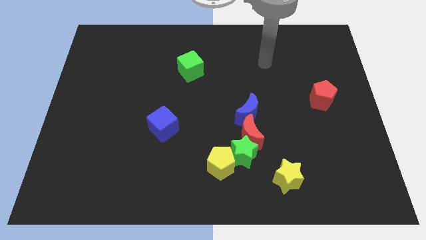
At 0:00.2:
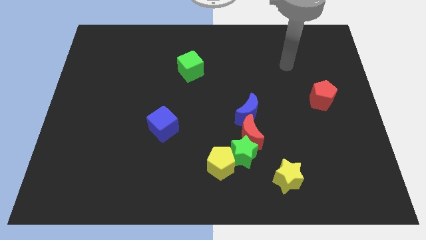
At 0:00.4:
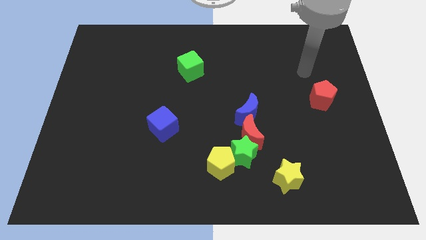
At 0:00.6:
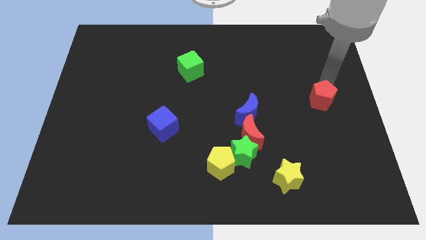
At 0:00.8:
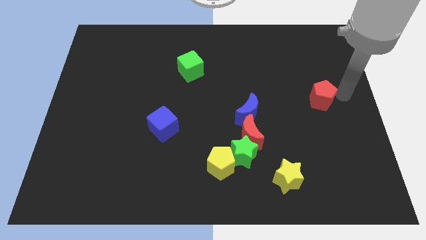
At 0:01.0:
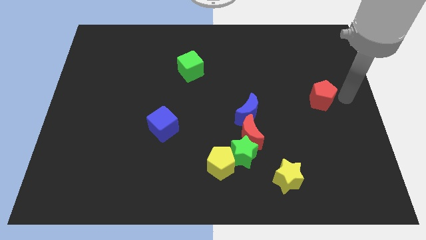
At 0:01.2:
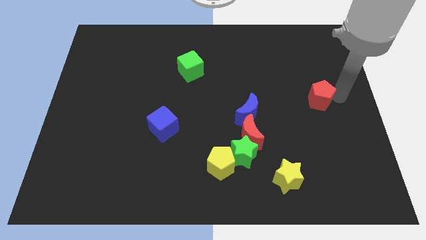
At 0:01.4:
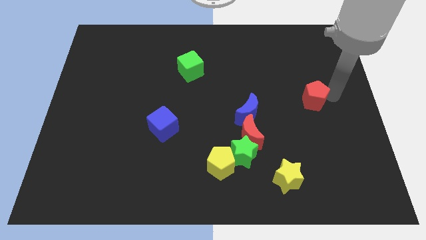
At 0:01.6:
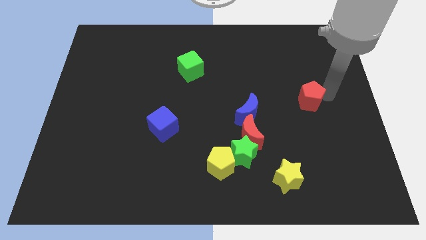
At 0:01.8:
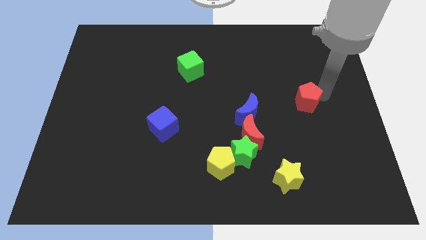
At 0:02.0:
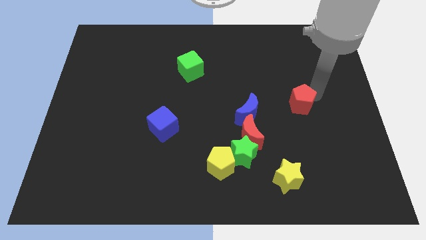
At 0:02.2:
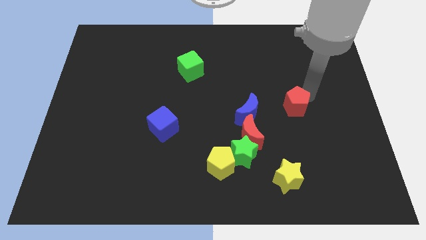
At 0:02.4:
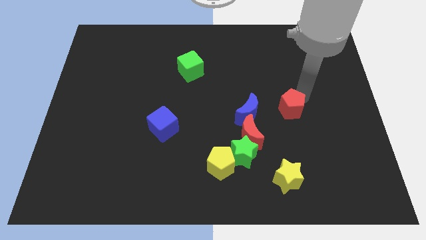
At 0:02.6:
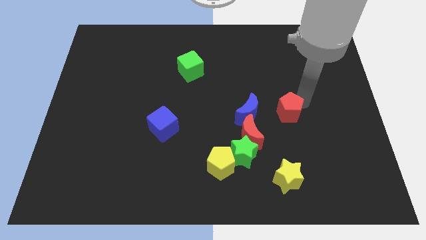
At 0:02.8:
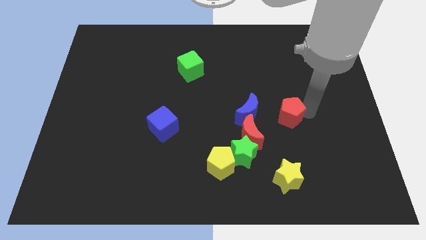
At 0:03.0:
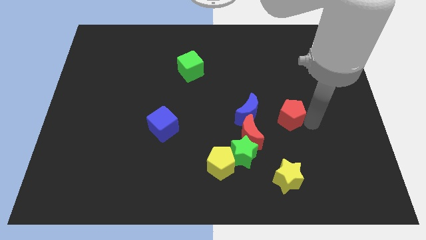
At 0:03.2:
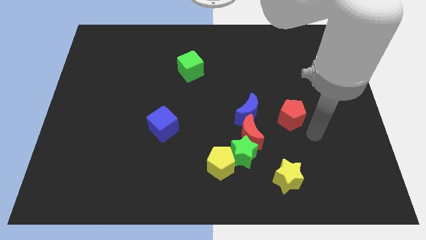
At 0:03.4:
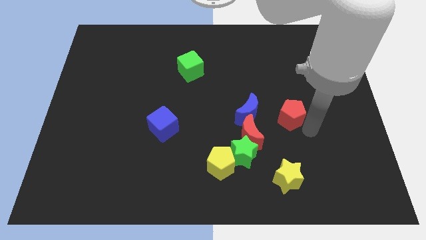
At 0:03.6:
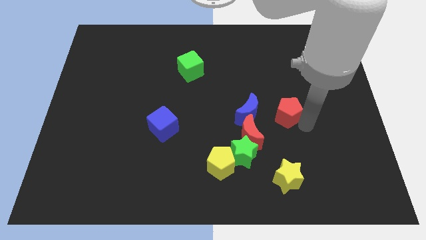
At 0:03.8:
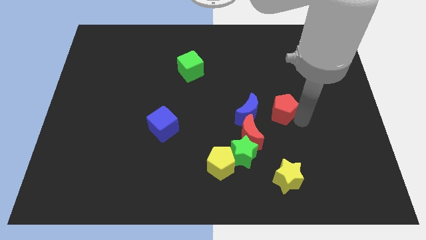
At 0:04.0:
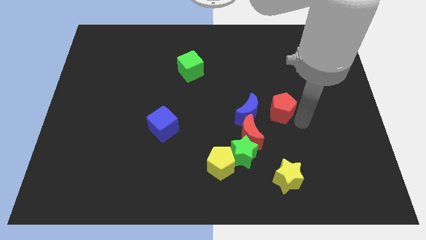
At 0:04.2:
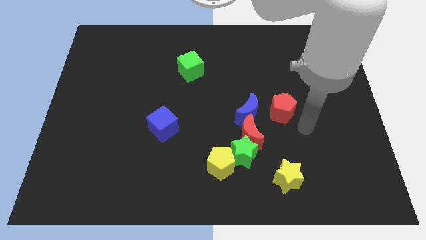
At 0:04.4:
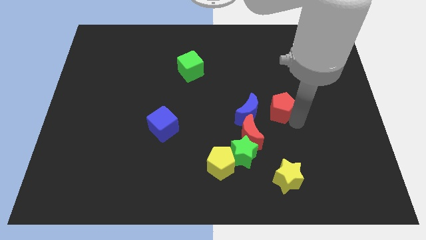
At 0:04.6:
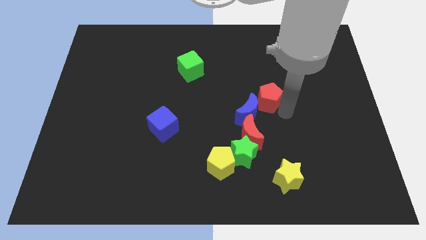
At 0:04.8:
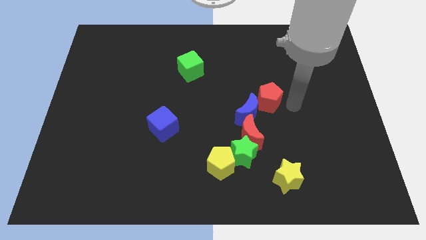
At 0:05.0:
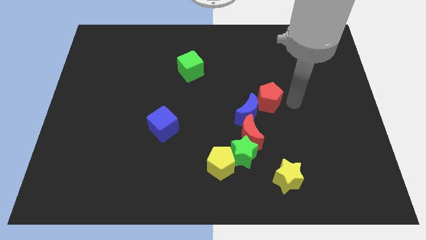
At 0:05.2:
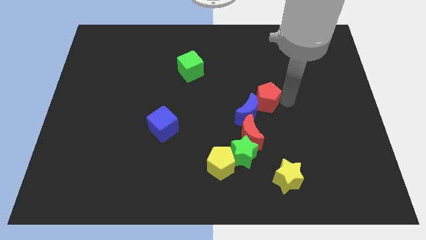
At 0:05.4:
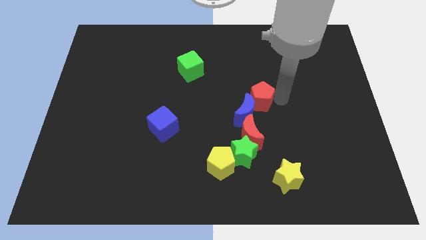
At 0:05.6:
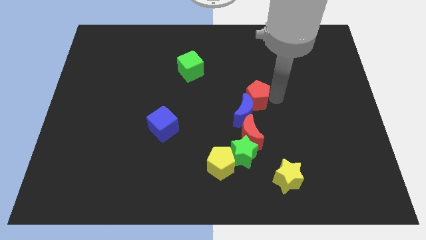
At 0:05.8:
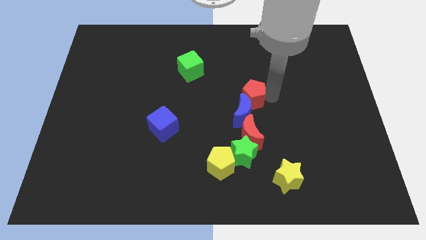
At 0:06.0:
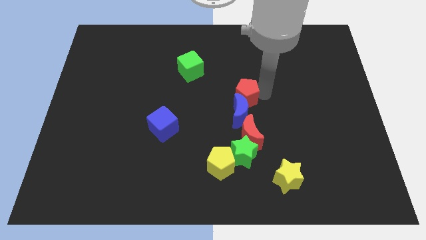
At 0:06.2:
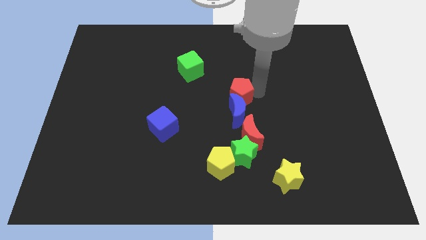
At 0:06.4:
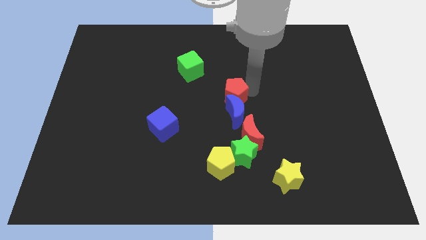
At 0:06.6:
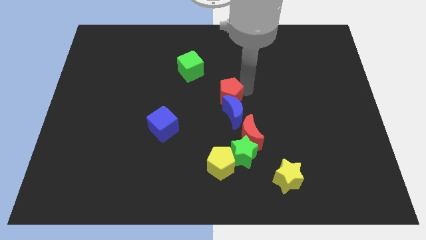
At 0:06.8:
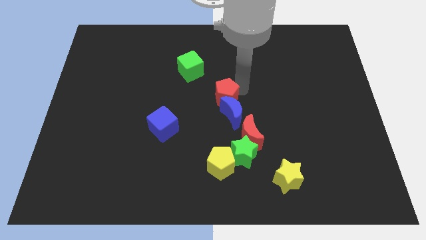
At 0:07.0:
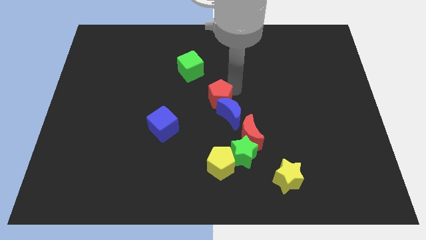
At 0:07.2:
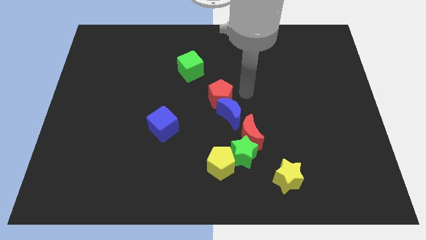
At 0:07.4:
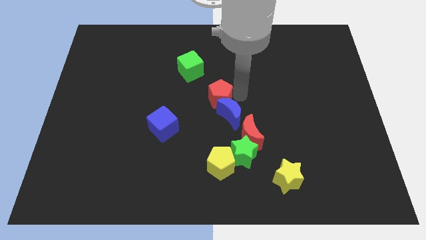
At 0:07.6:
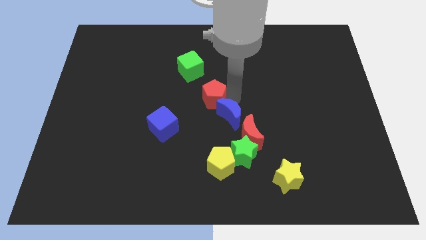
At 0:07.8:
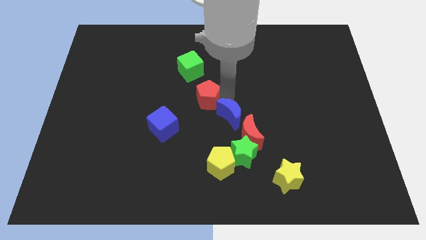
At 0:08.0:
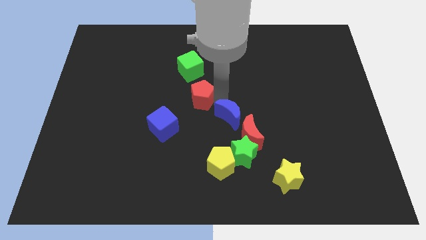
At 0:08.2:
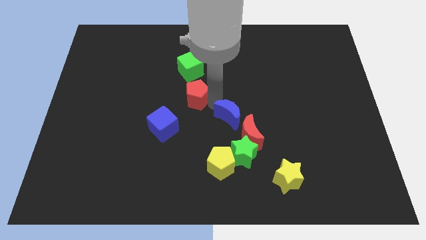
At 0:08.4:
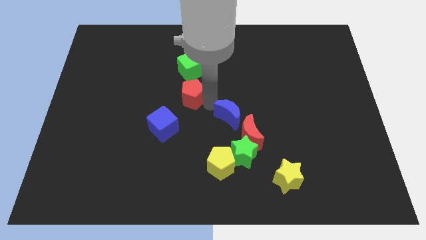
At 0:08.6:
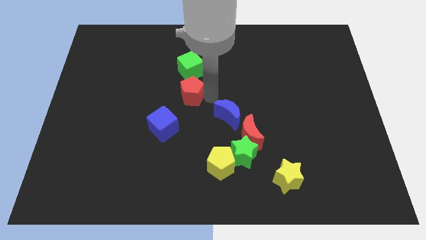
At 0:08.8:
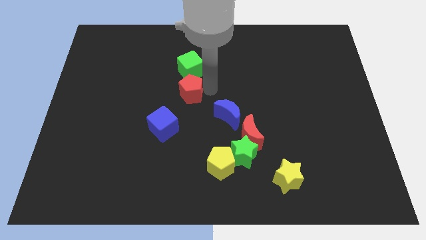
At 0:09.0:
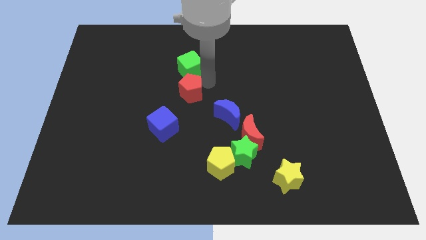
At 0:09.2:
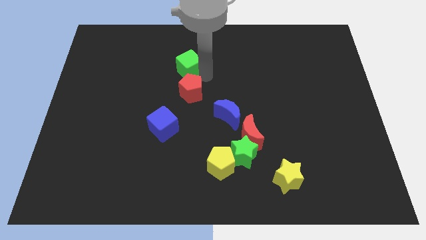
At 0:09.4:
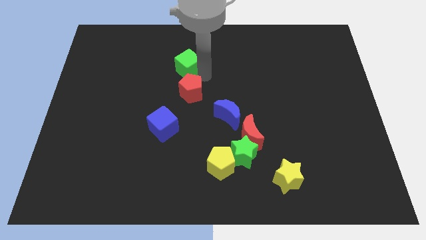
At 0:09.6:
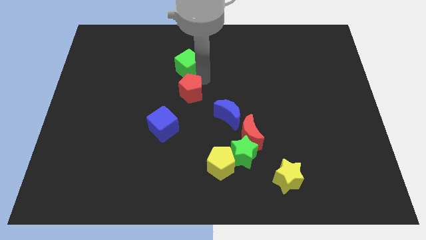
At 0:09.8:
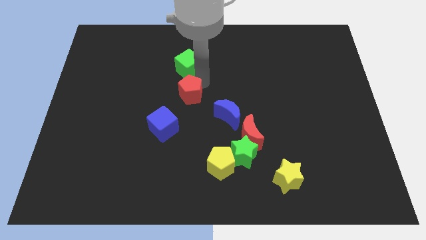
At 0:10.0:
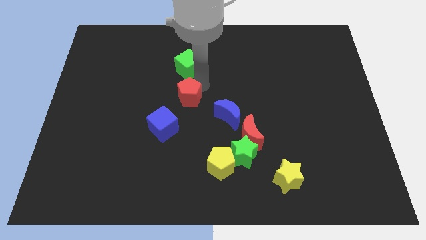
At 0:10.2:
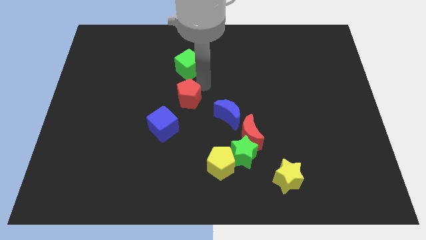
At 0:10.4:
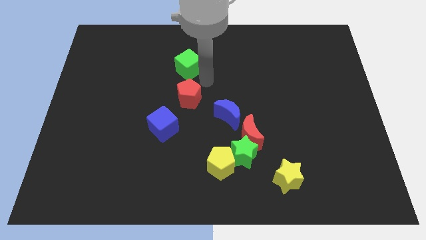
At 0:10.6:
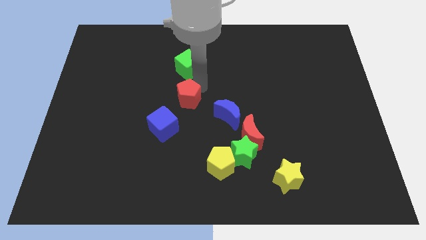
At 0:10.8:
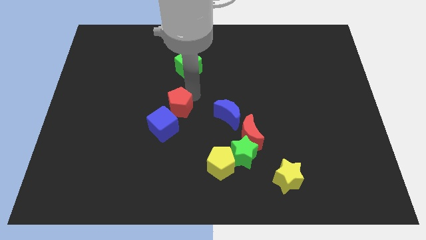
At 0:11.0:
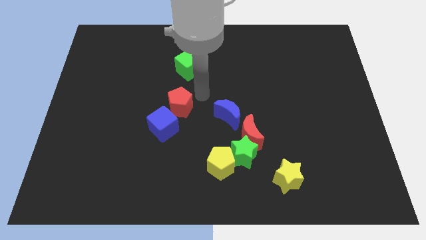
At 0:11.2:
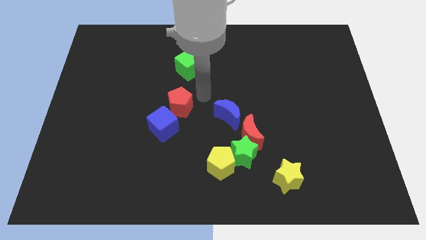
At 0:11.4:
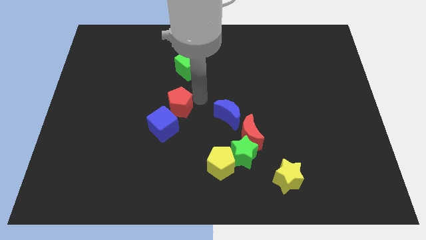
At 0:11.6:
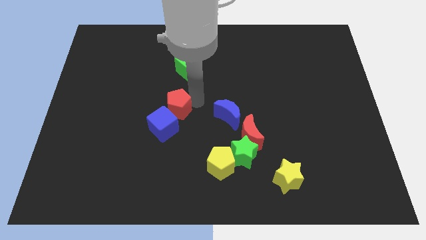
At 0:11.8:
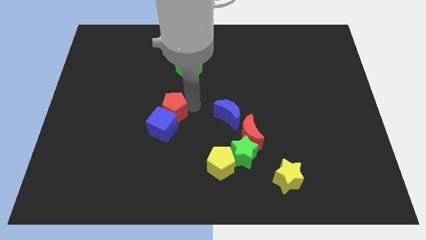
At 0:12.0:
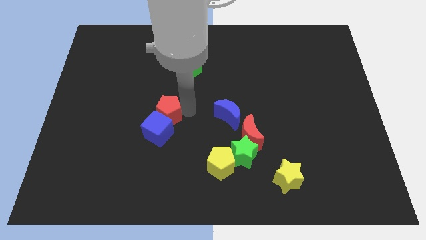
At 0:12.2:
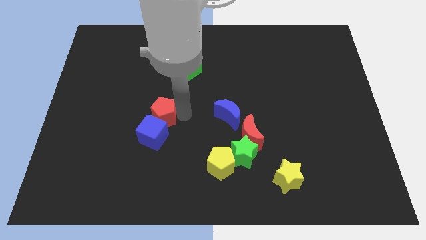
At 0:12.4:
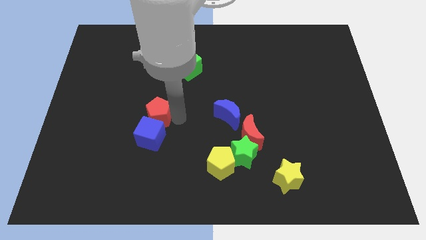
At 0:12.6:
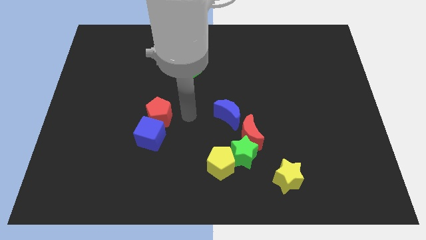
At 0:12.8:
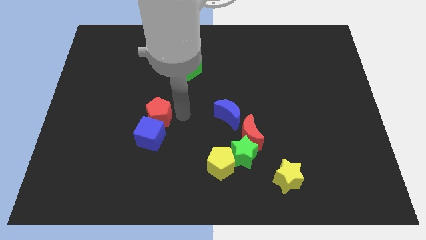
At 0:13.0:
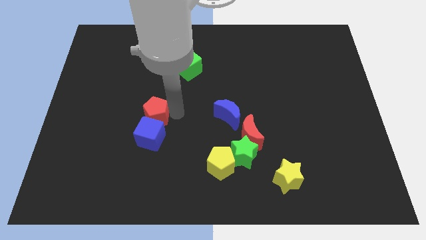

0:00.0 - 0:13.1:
slide the red pentagon to the top left of the blue cube
